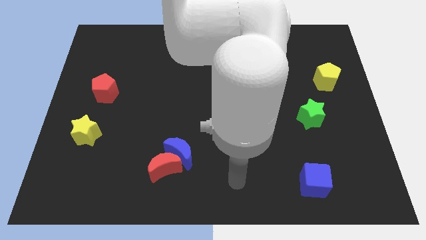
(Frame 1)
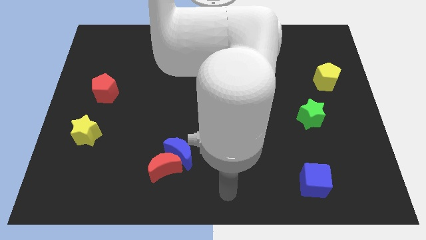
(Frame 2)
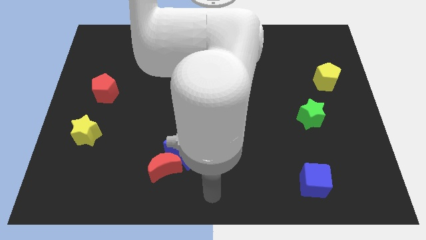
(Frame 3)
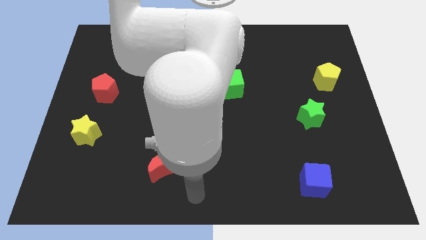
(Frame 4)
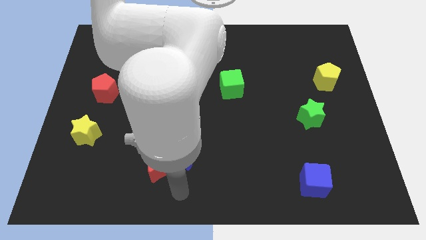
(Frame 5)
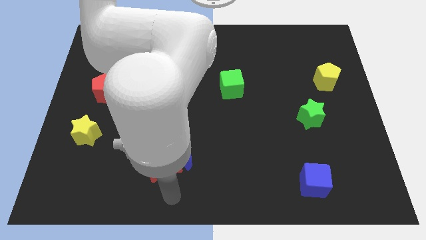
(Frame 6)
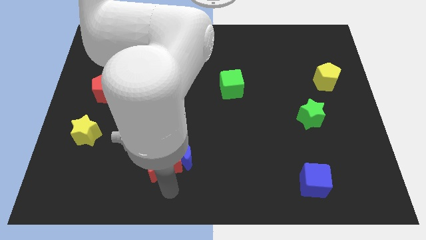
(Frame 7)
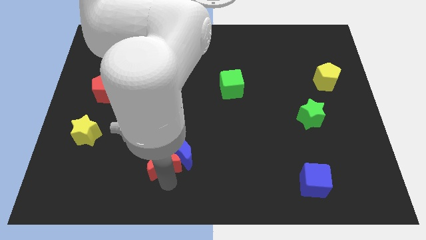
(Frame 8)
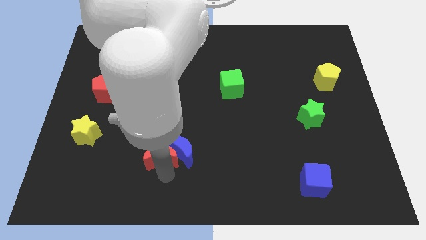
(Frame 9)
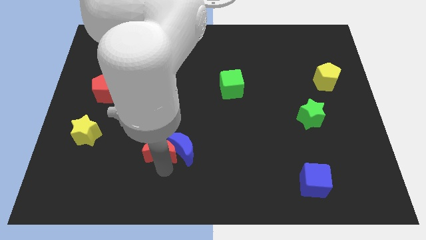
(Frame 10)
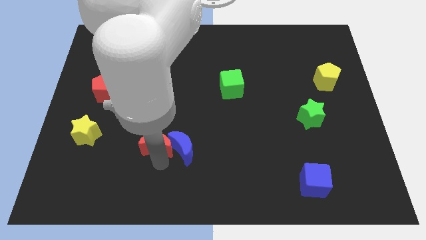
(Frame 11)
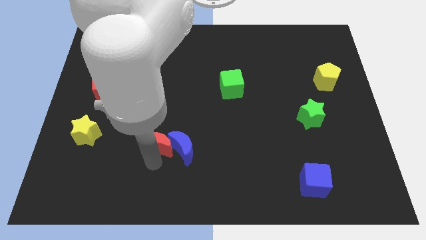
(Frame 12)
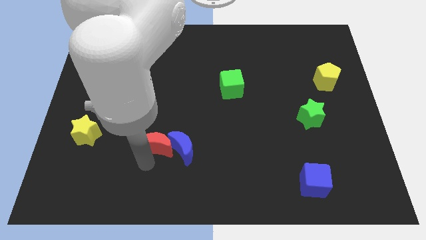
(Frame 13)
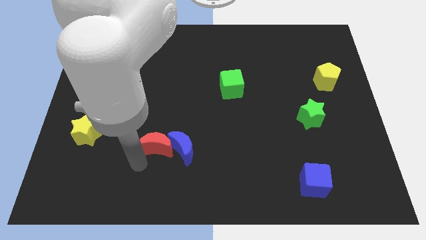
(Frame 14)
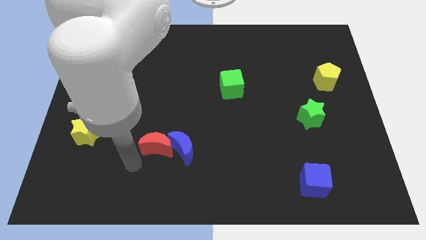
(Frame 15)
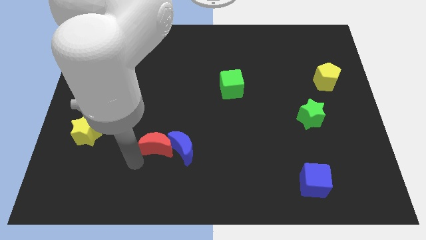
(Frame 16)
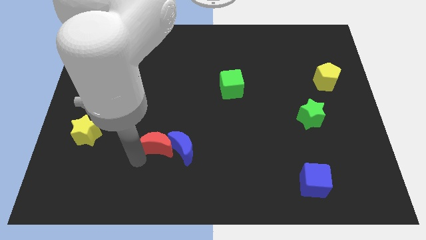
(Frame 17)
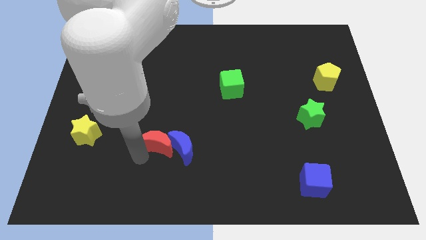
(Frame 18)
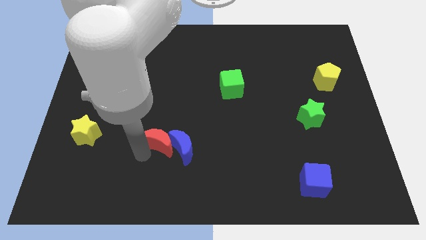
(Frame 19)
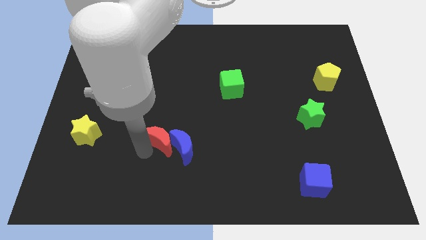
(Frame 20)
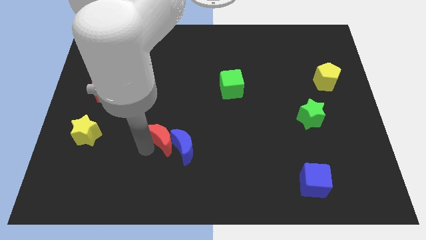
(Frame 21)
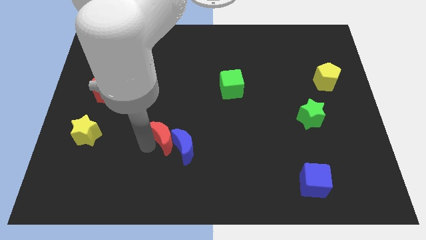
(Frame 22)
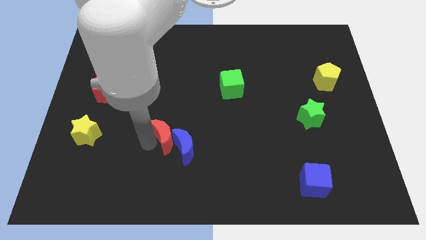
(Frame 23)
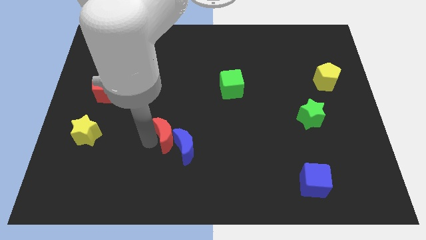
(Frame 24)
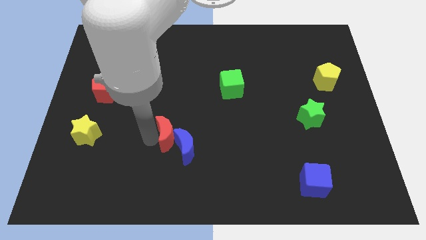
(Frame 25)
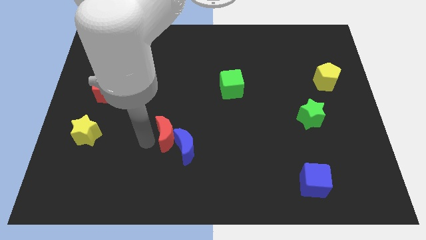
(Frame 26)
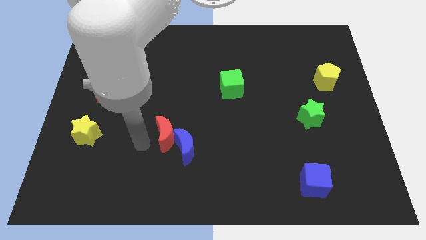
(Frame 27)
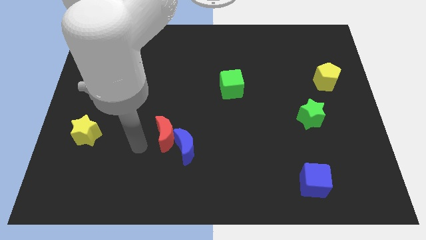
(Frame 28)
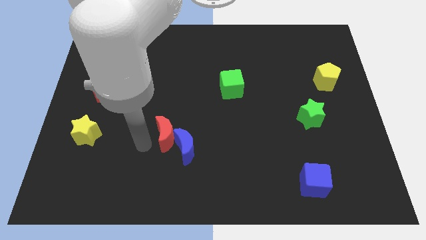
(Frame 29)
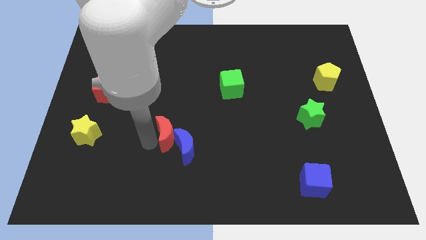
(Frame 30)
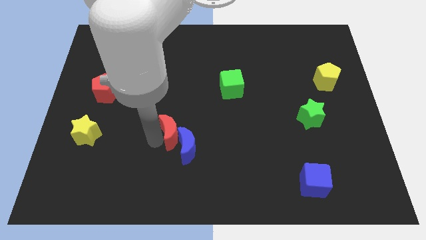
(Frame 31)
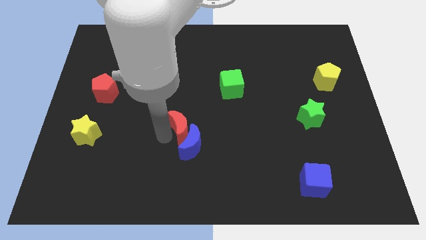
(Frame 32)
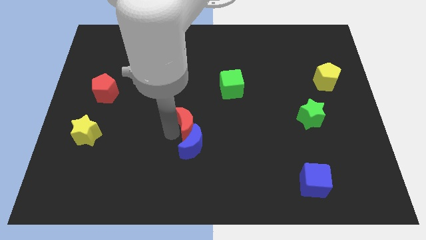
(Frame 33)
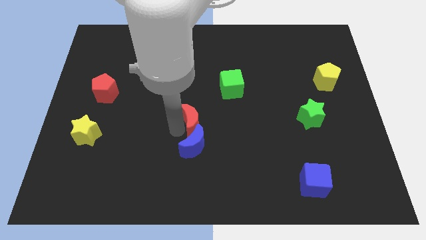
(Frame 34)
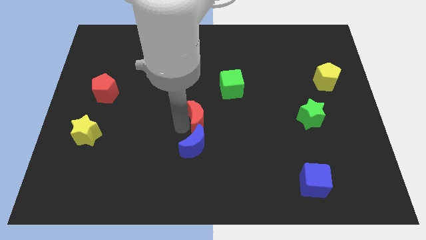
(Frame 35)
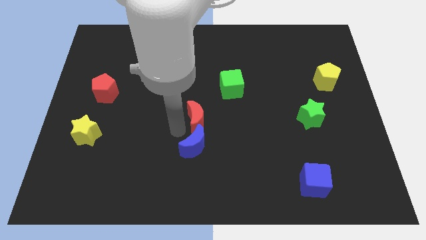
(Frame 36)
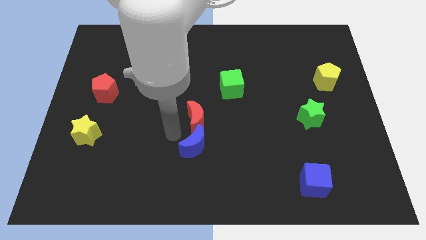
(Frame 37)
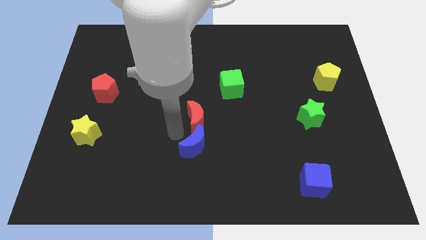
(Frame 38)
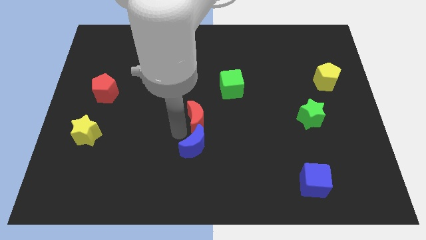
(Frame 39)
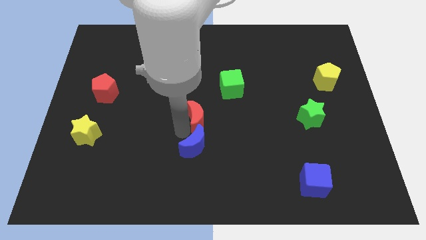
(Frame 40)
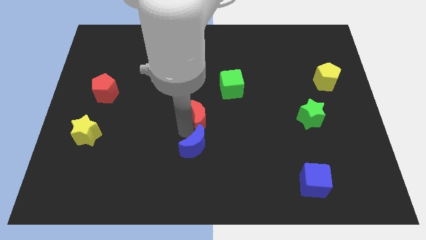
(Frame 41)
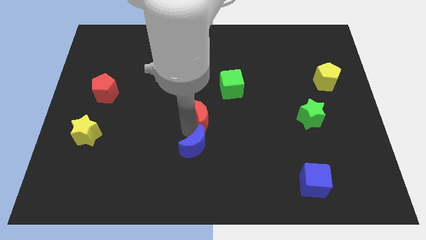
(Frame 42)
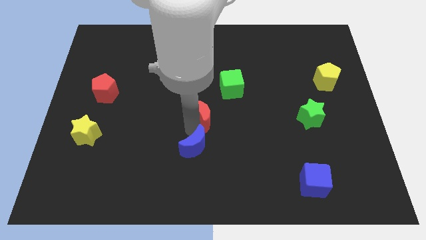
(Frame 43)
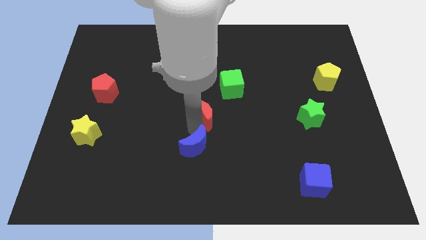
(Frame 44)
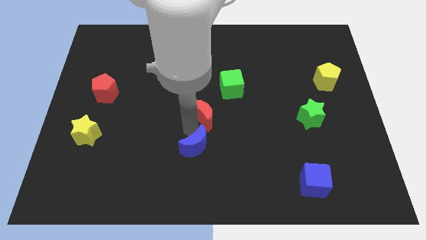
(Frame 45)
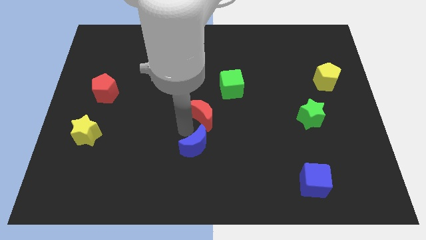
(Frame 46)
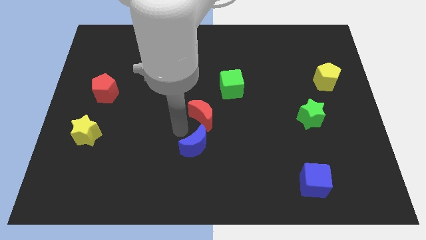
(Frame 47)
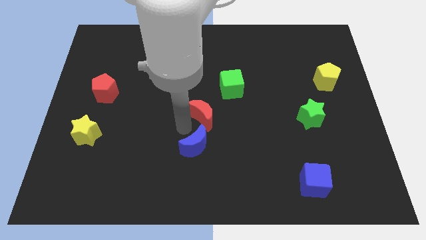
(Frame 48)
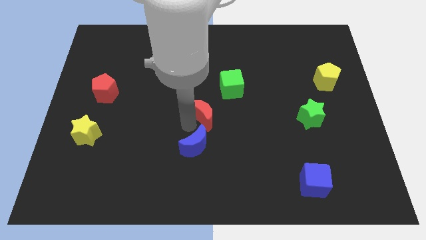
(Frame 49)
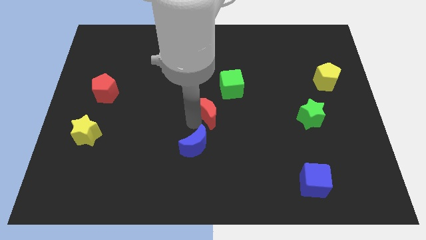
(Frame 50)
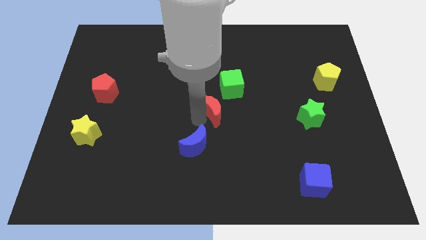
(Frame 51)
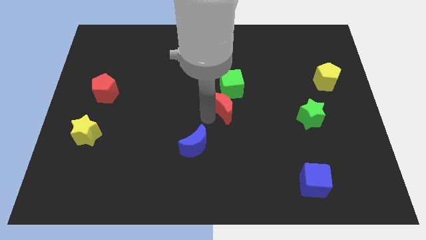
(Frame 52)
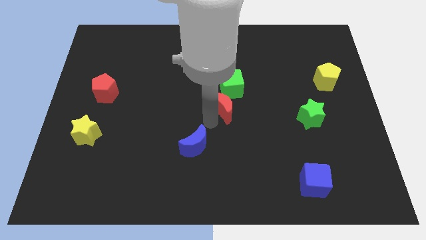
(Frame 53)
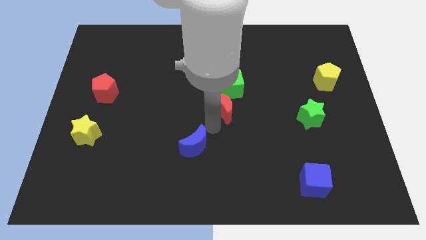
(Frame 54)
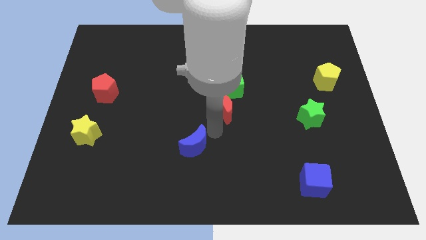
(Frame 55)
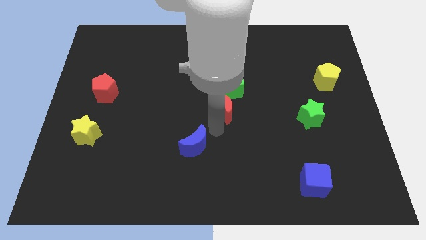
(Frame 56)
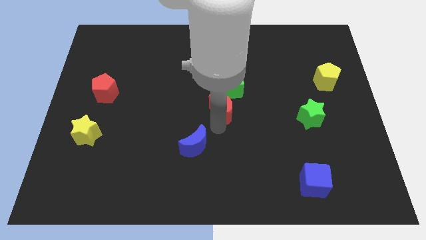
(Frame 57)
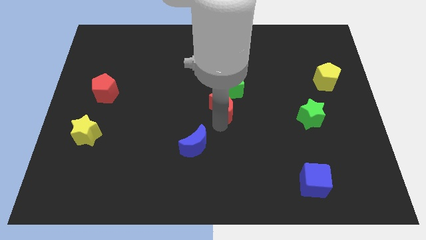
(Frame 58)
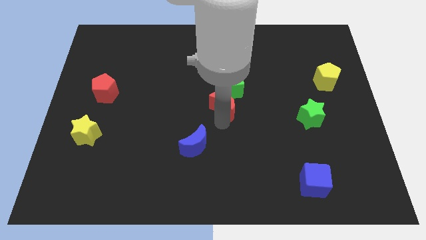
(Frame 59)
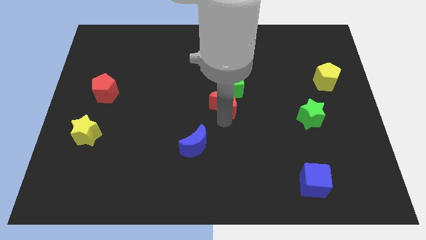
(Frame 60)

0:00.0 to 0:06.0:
put the red moon towards the green cube

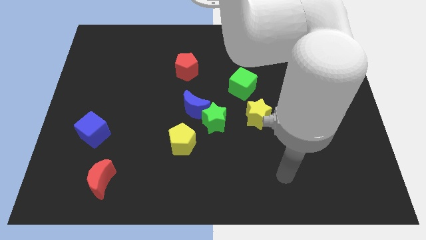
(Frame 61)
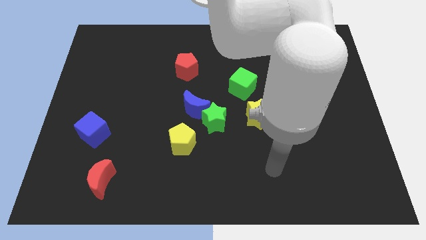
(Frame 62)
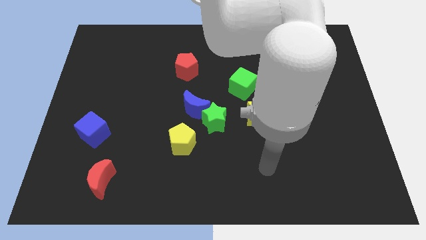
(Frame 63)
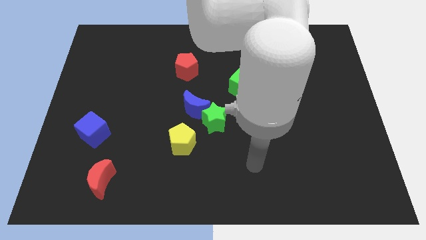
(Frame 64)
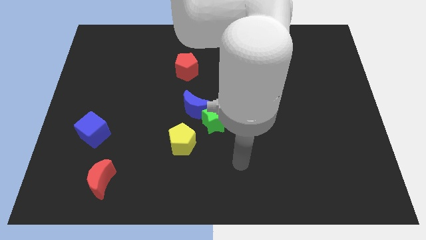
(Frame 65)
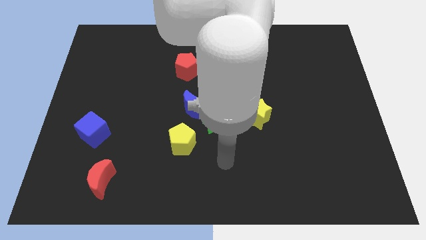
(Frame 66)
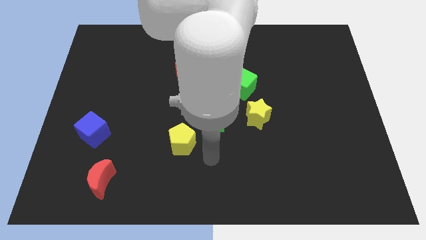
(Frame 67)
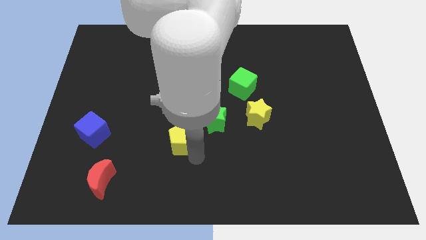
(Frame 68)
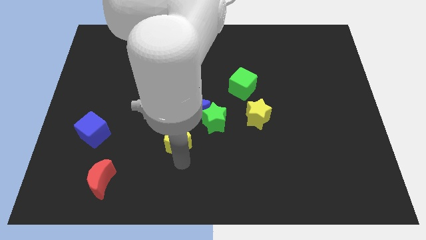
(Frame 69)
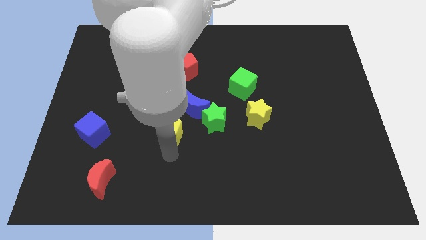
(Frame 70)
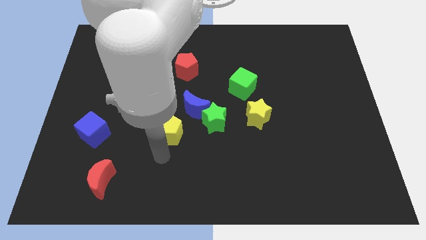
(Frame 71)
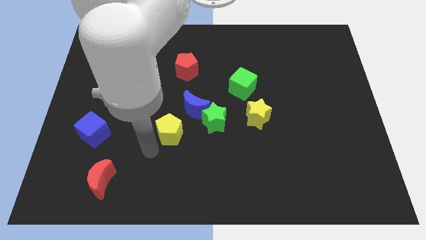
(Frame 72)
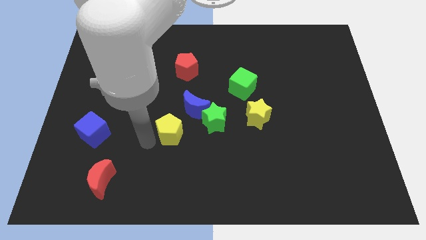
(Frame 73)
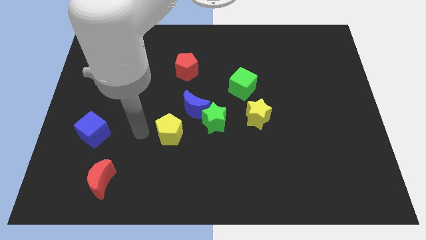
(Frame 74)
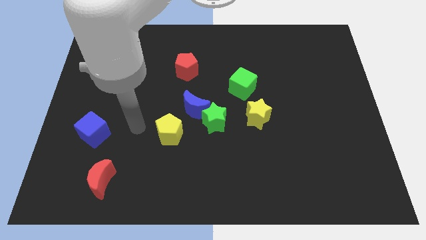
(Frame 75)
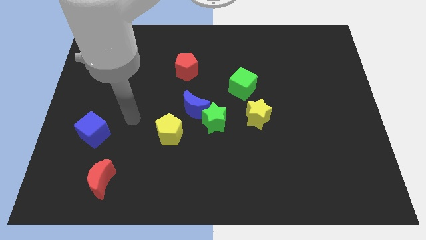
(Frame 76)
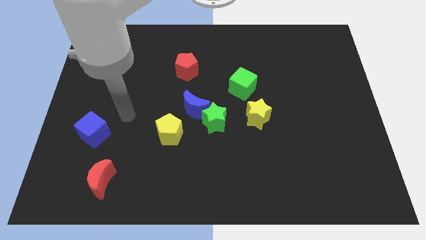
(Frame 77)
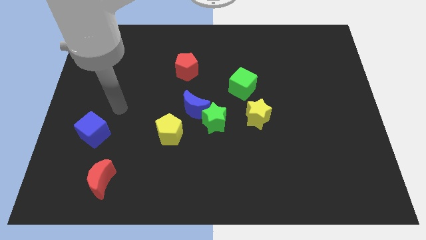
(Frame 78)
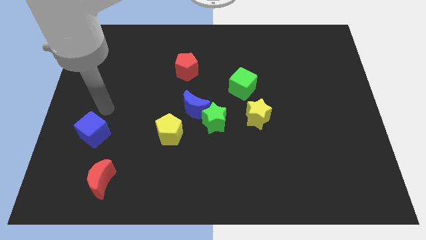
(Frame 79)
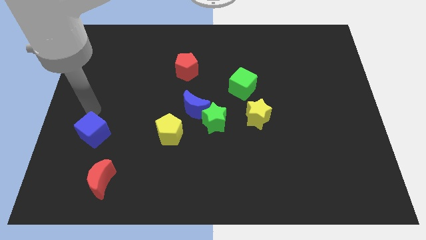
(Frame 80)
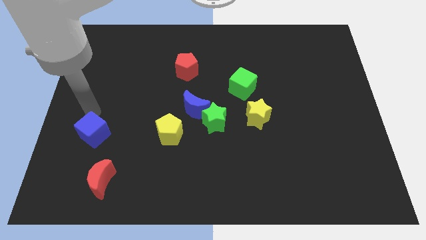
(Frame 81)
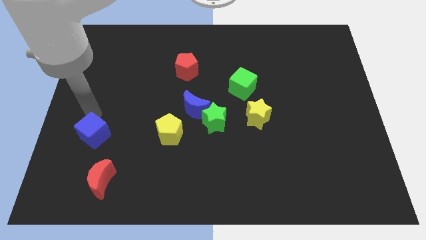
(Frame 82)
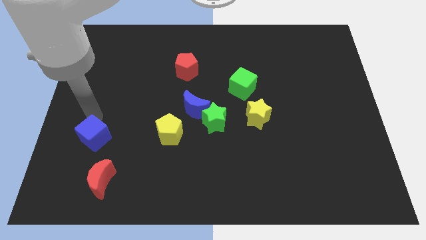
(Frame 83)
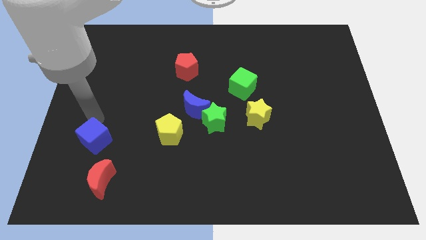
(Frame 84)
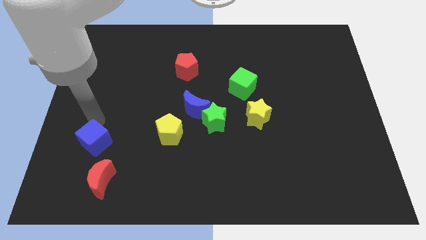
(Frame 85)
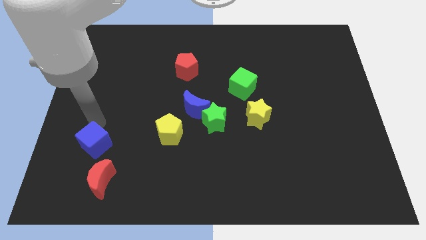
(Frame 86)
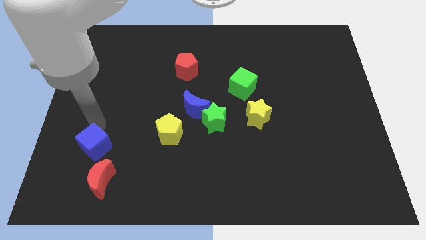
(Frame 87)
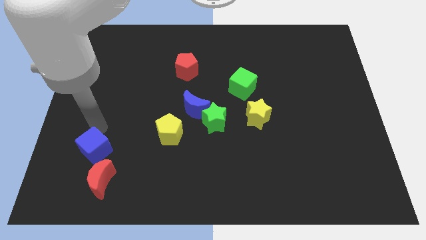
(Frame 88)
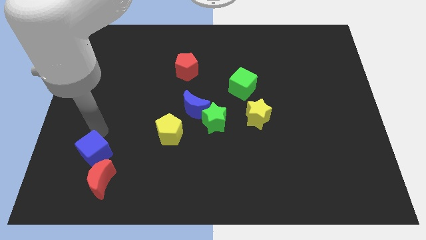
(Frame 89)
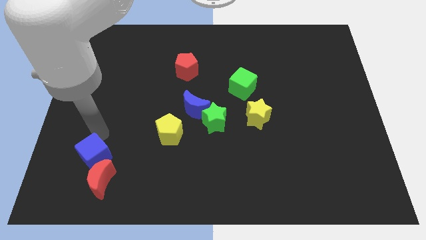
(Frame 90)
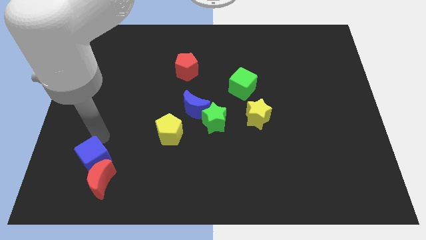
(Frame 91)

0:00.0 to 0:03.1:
move the blue cube next to the red moon
